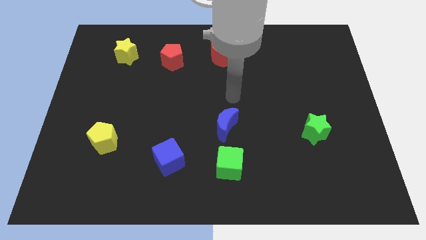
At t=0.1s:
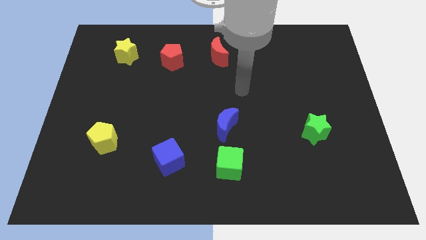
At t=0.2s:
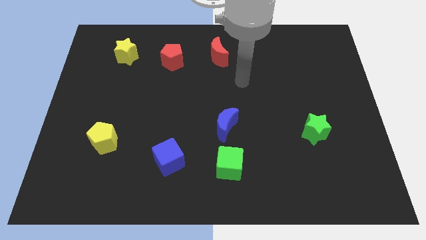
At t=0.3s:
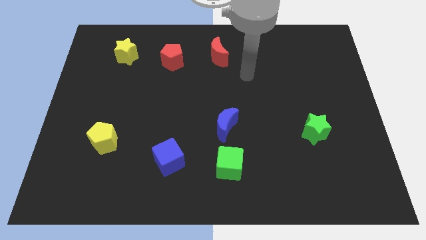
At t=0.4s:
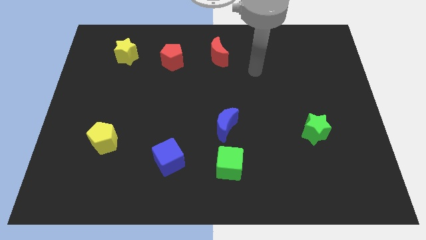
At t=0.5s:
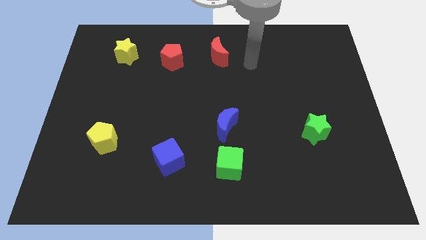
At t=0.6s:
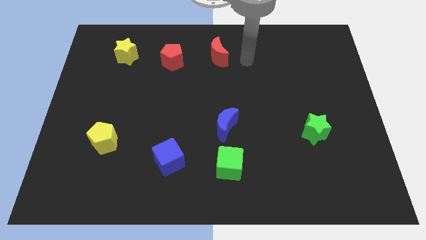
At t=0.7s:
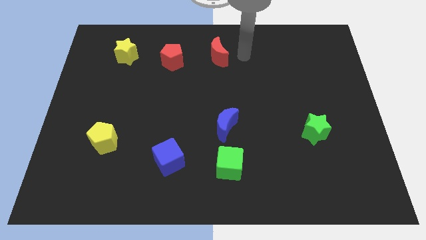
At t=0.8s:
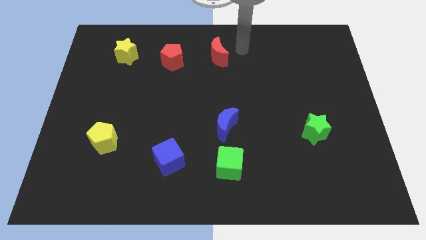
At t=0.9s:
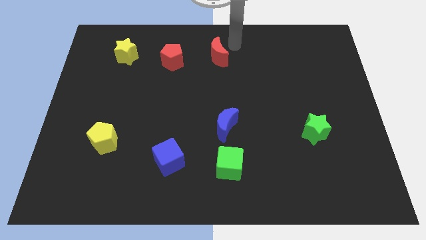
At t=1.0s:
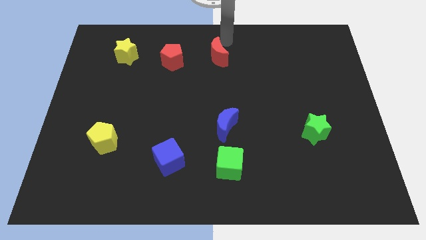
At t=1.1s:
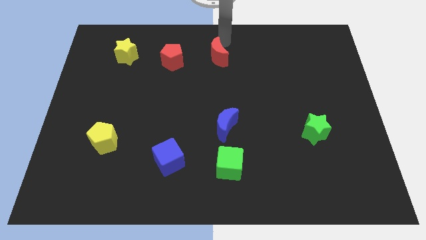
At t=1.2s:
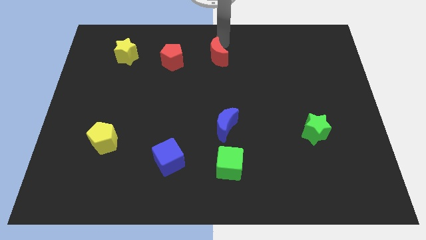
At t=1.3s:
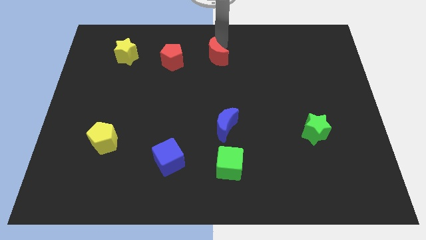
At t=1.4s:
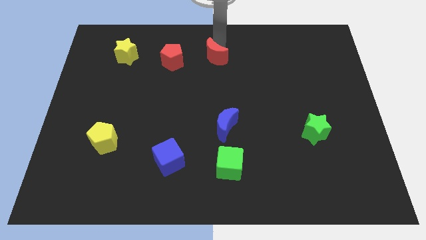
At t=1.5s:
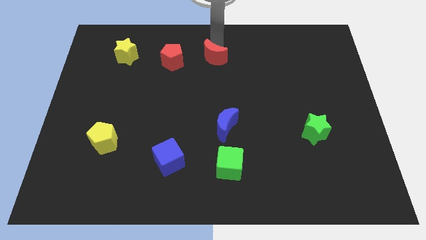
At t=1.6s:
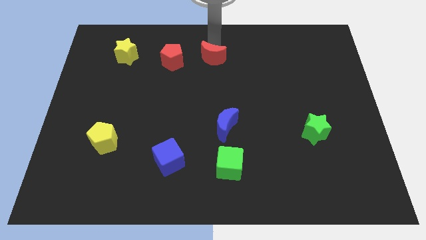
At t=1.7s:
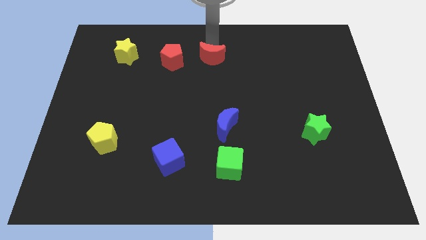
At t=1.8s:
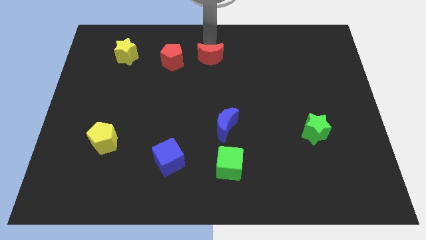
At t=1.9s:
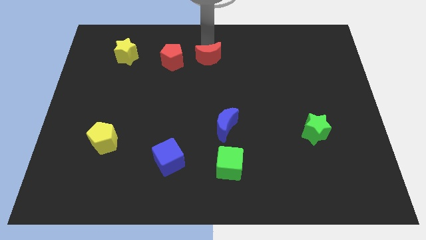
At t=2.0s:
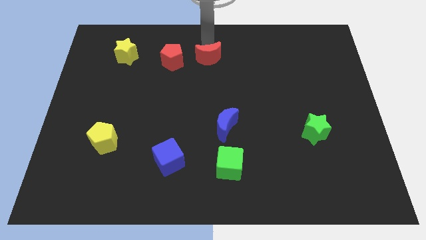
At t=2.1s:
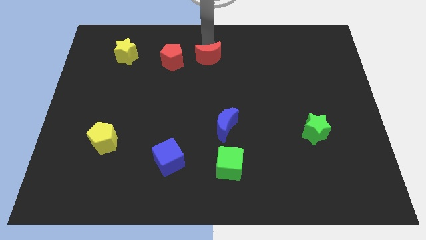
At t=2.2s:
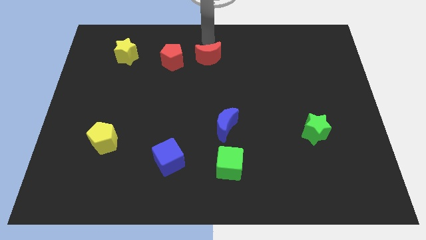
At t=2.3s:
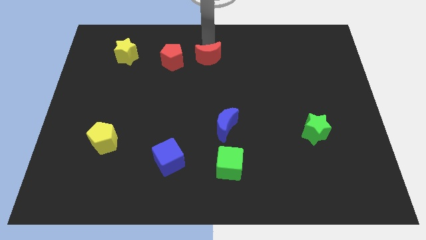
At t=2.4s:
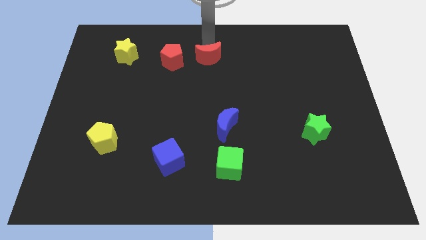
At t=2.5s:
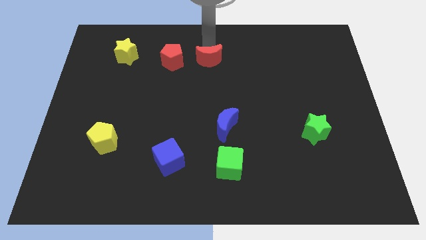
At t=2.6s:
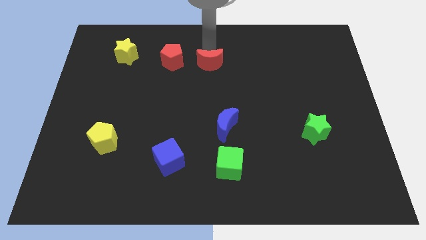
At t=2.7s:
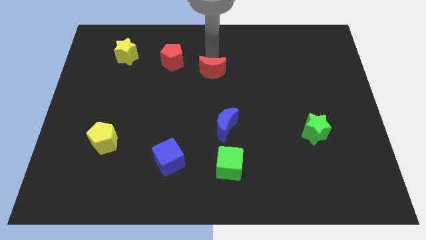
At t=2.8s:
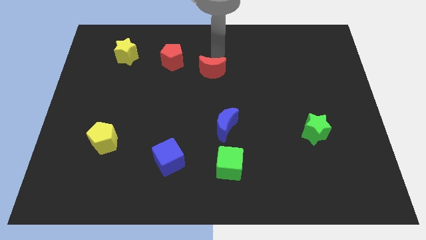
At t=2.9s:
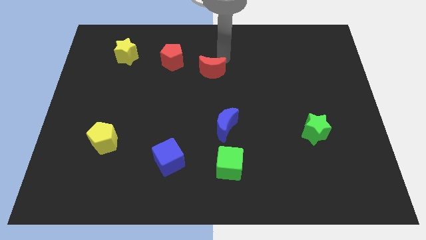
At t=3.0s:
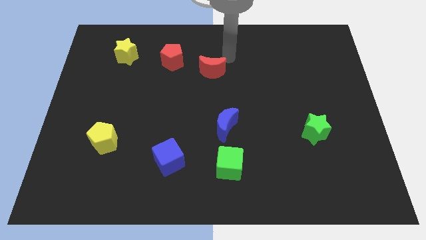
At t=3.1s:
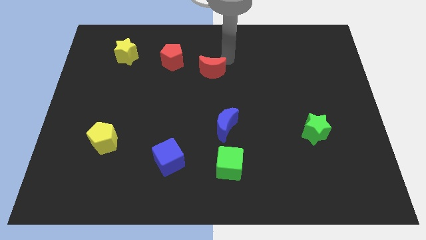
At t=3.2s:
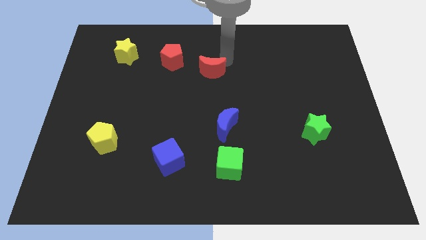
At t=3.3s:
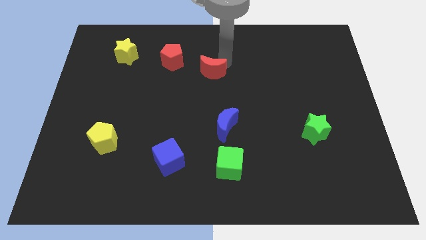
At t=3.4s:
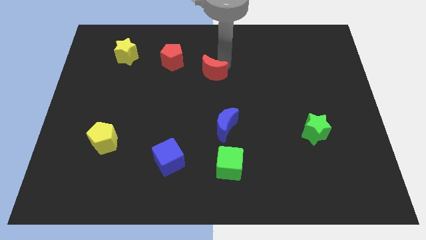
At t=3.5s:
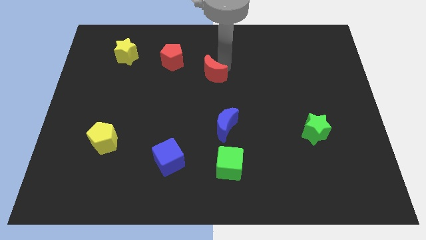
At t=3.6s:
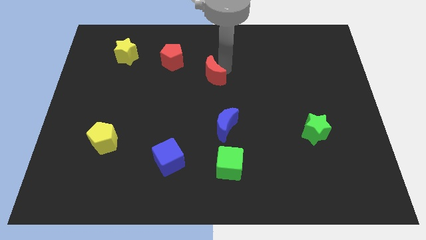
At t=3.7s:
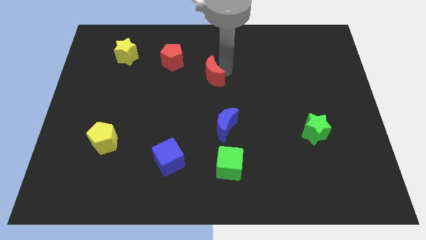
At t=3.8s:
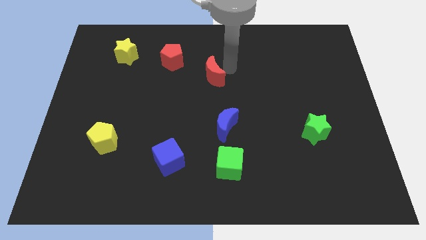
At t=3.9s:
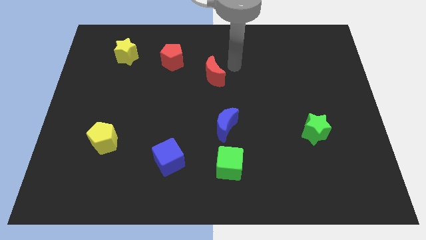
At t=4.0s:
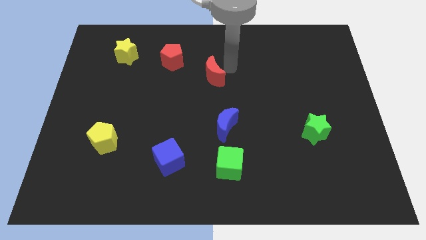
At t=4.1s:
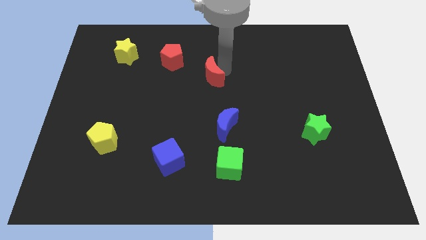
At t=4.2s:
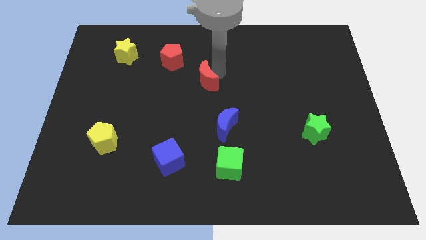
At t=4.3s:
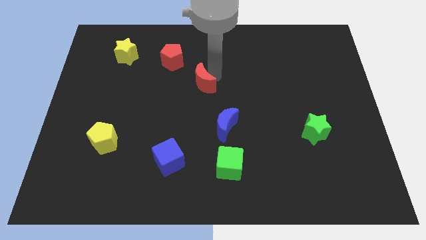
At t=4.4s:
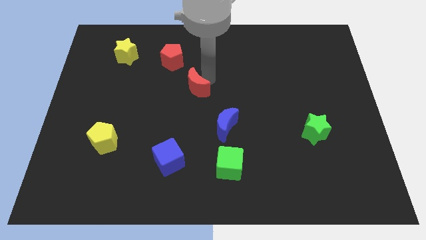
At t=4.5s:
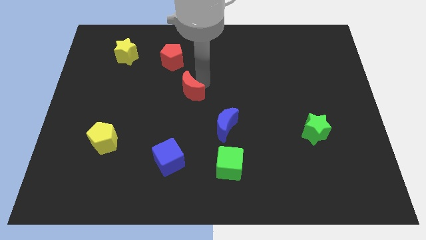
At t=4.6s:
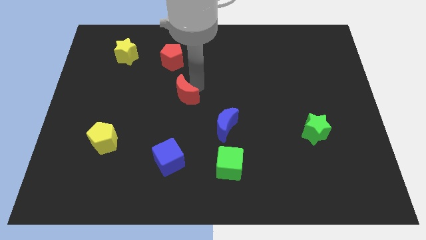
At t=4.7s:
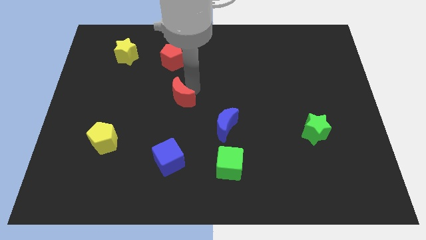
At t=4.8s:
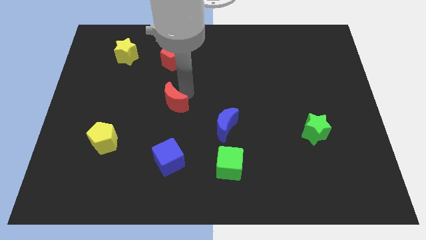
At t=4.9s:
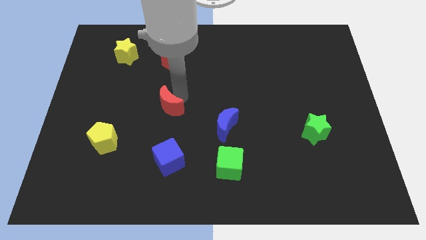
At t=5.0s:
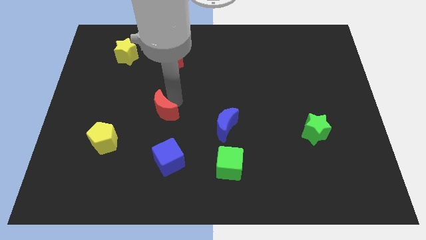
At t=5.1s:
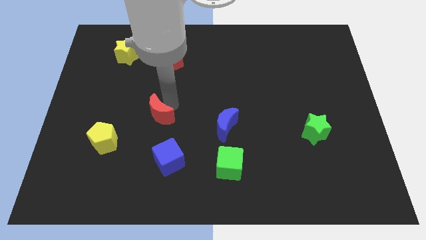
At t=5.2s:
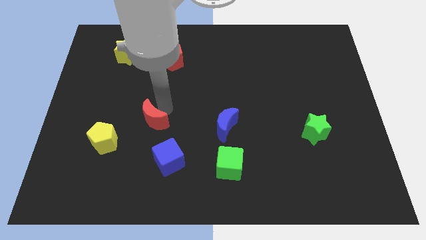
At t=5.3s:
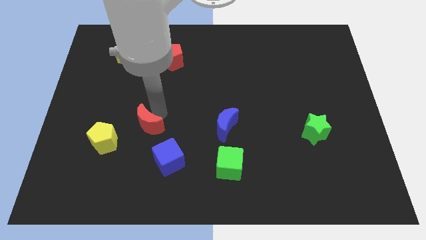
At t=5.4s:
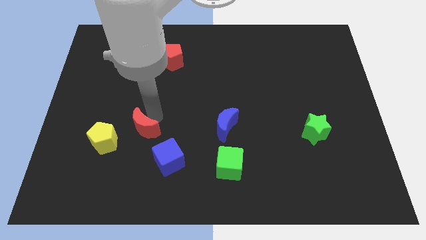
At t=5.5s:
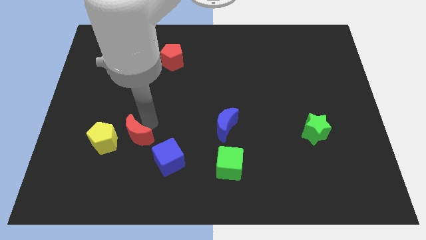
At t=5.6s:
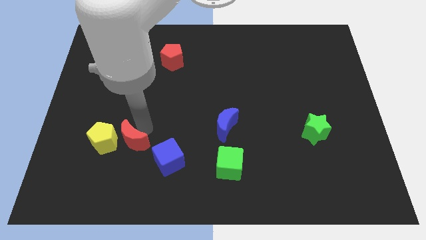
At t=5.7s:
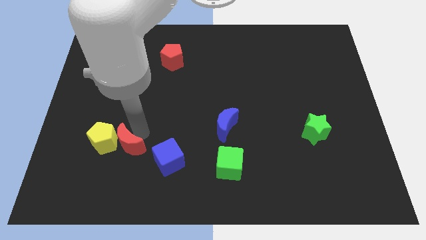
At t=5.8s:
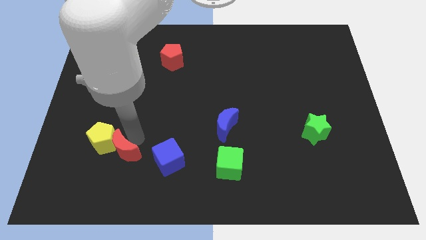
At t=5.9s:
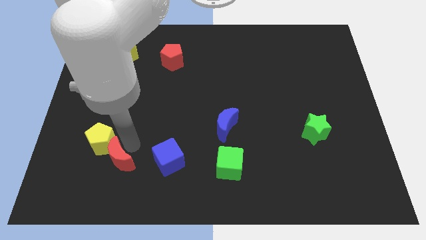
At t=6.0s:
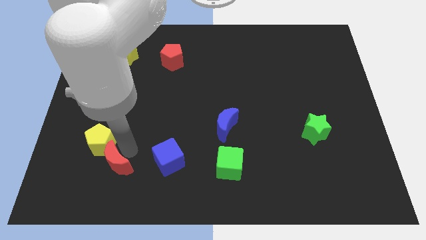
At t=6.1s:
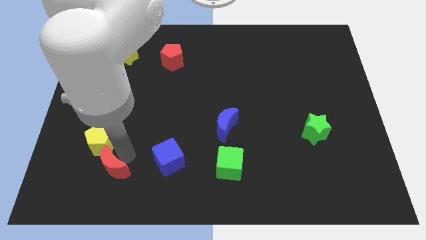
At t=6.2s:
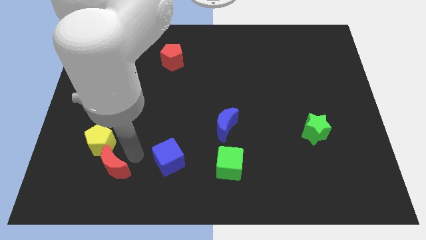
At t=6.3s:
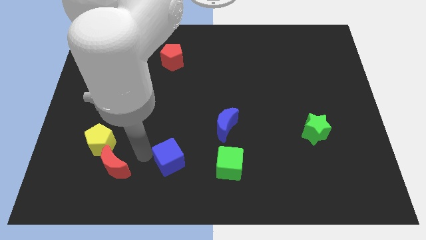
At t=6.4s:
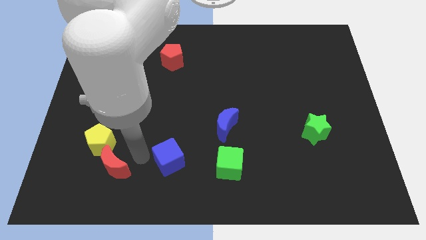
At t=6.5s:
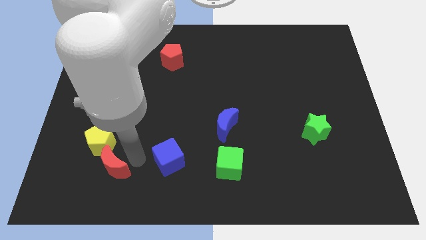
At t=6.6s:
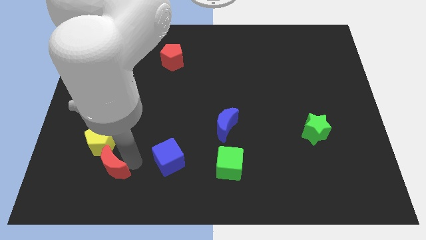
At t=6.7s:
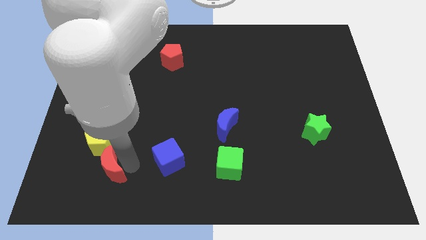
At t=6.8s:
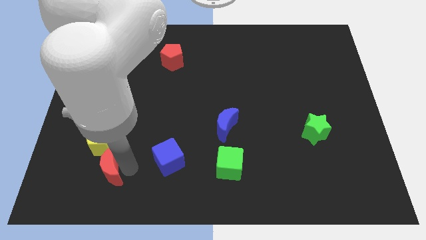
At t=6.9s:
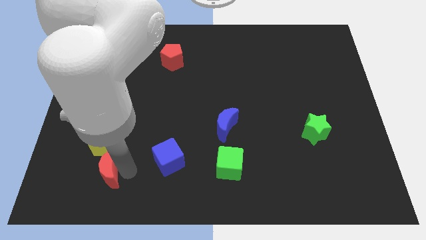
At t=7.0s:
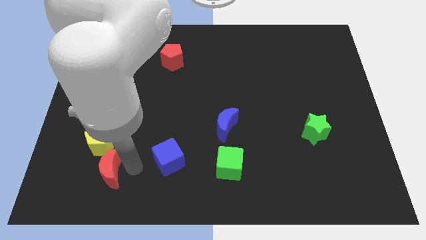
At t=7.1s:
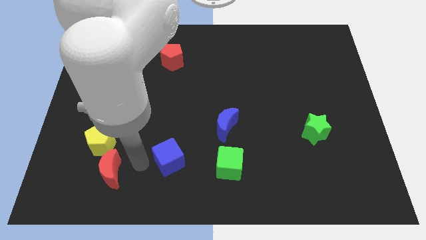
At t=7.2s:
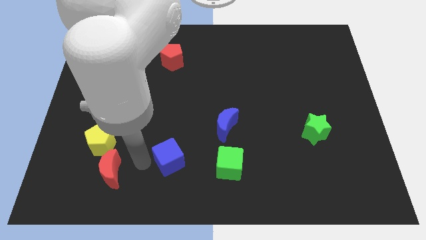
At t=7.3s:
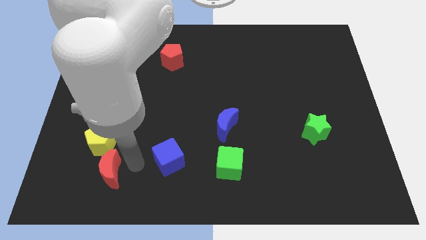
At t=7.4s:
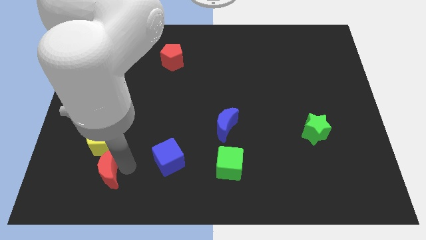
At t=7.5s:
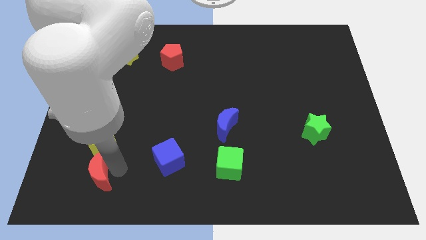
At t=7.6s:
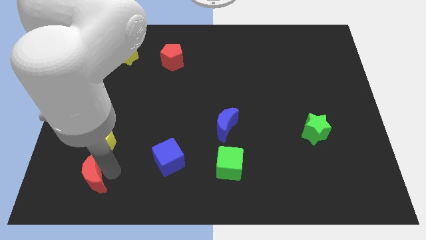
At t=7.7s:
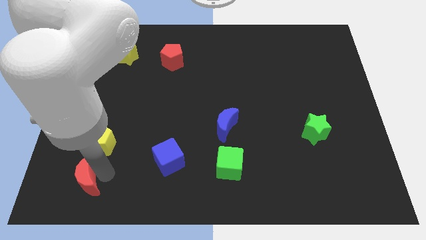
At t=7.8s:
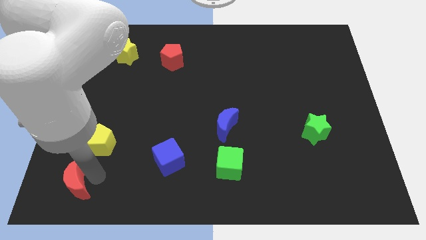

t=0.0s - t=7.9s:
push the red moon to the bottom left corner
